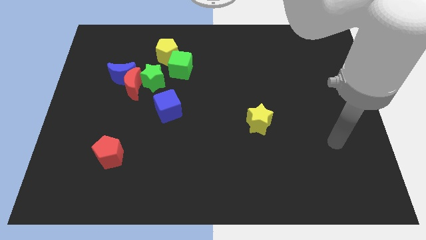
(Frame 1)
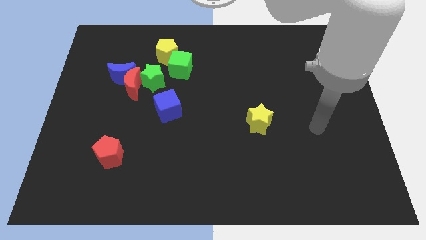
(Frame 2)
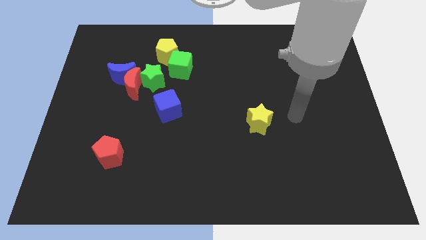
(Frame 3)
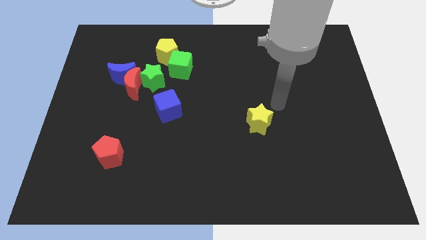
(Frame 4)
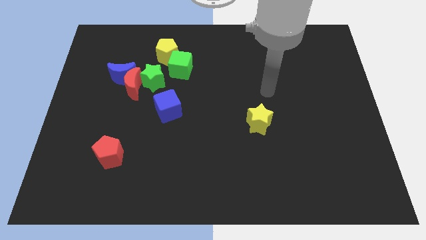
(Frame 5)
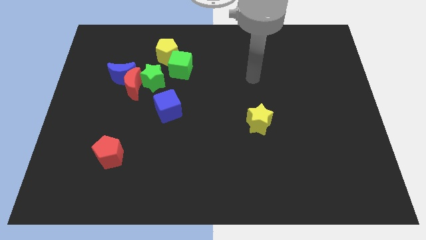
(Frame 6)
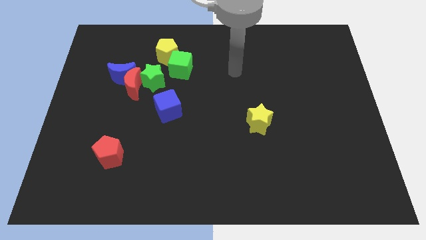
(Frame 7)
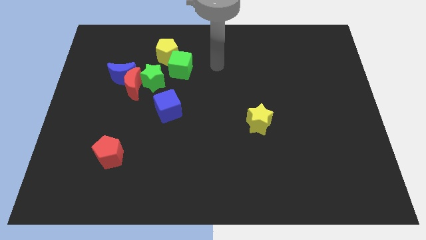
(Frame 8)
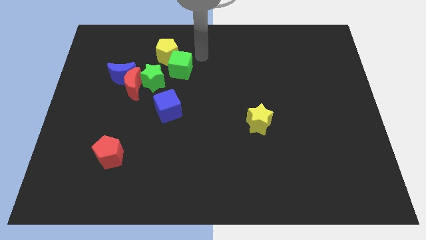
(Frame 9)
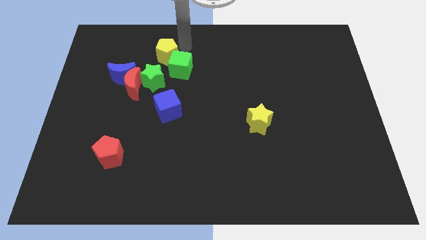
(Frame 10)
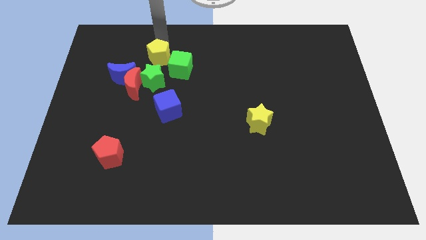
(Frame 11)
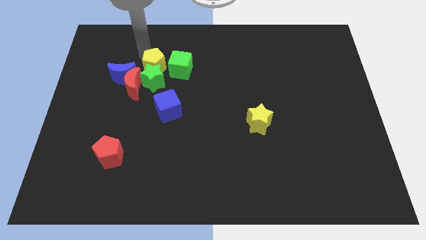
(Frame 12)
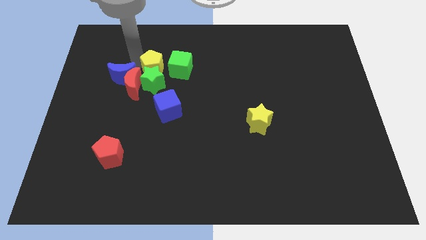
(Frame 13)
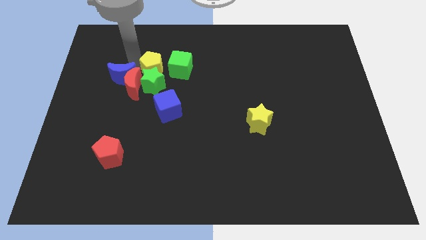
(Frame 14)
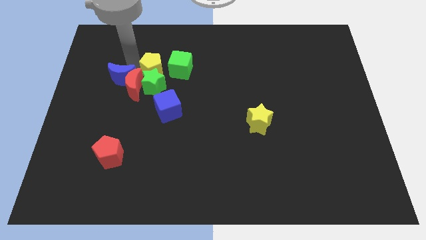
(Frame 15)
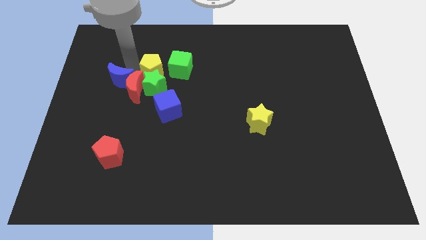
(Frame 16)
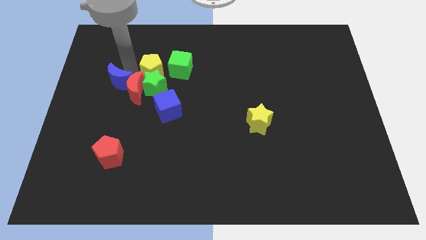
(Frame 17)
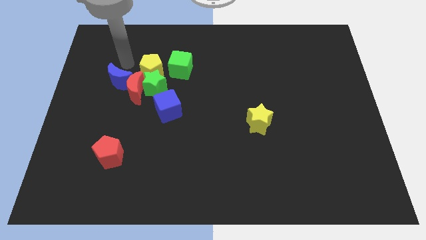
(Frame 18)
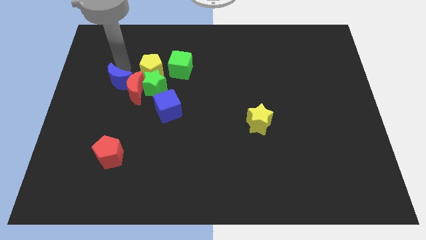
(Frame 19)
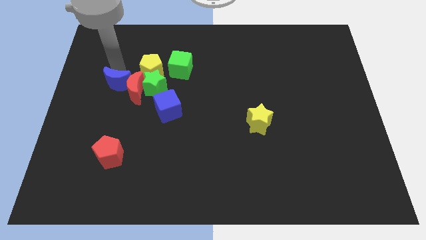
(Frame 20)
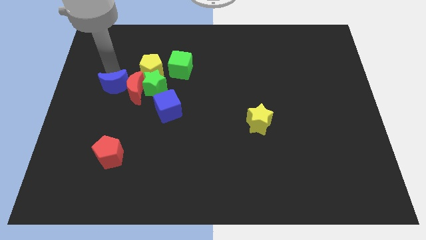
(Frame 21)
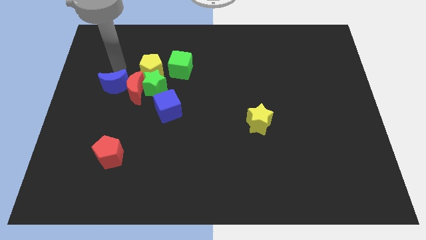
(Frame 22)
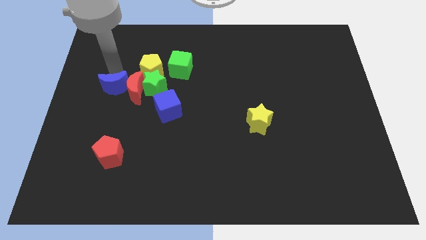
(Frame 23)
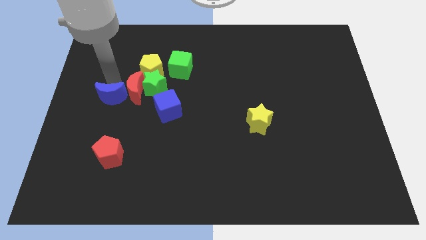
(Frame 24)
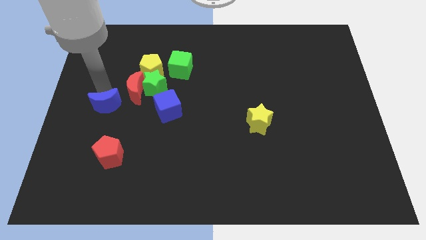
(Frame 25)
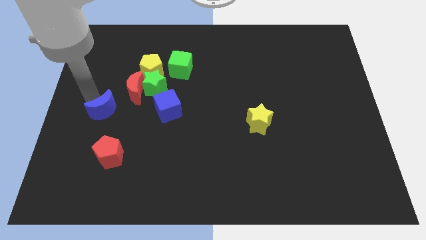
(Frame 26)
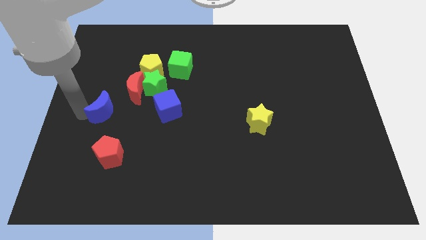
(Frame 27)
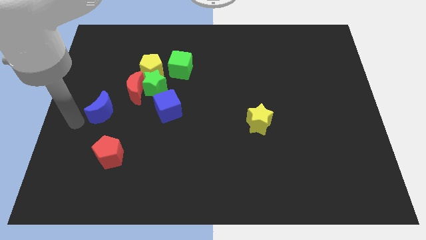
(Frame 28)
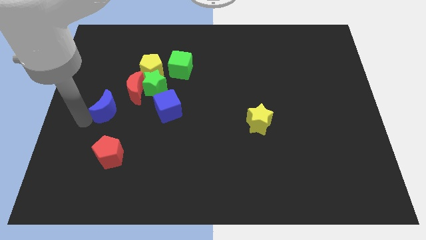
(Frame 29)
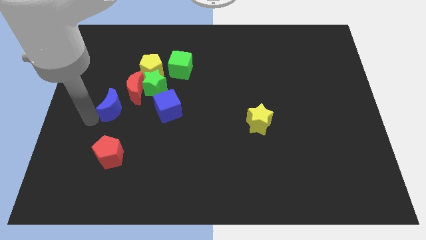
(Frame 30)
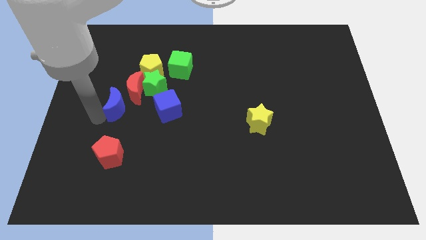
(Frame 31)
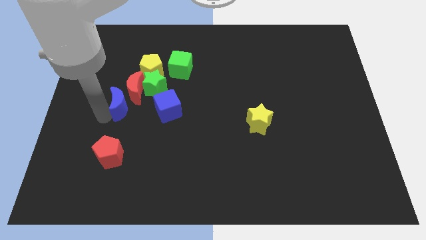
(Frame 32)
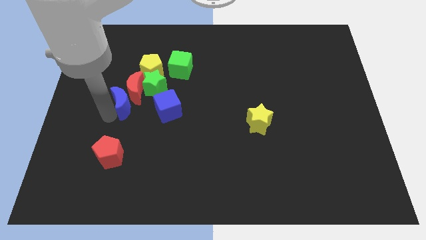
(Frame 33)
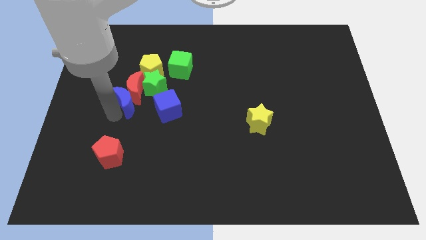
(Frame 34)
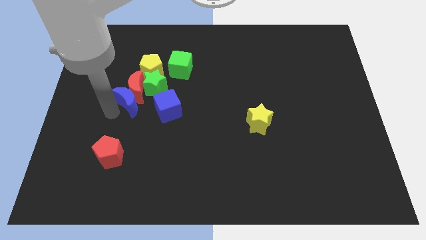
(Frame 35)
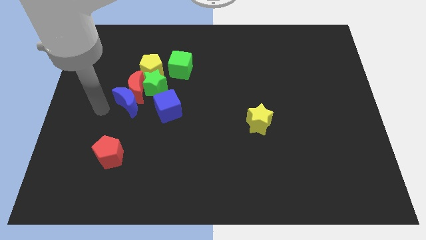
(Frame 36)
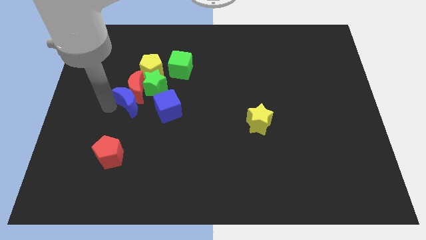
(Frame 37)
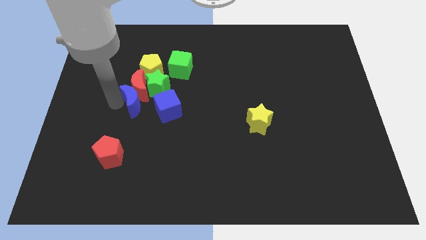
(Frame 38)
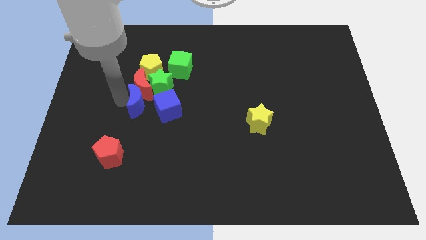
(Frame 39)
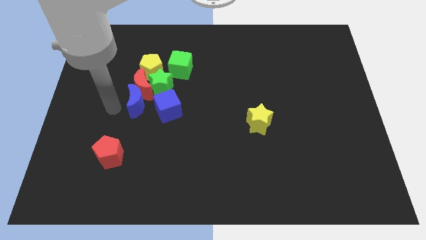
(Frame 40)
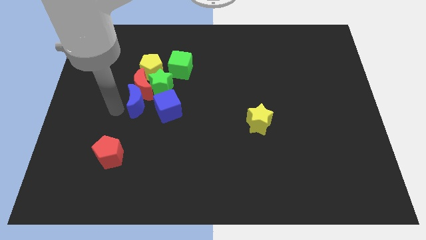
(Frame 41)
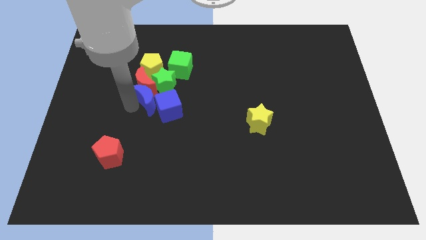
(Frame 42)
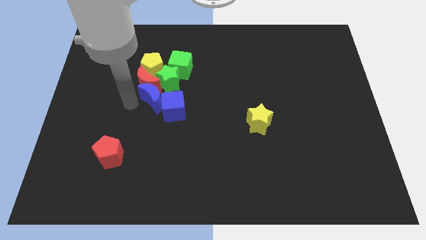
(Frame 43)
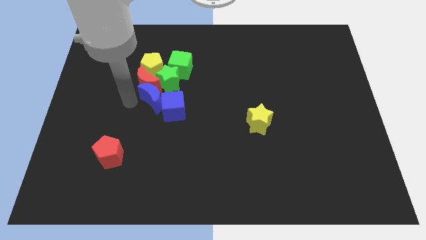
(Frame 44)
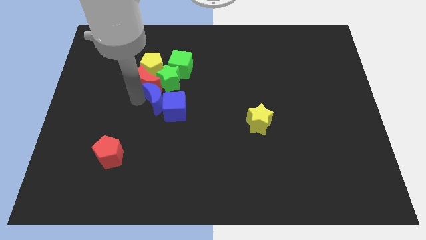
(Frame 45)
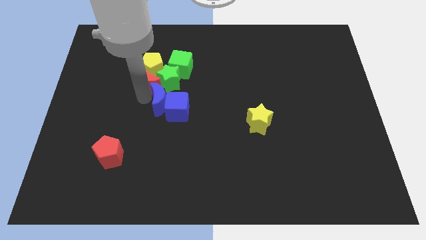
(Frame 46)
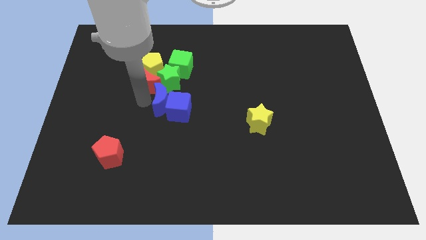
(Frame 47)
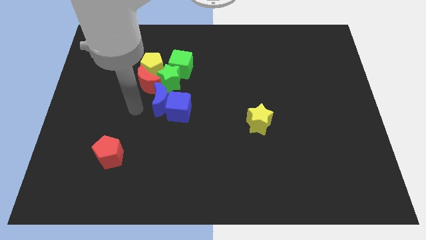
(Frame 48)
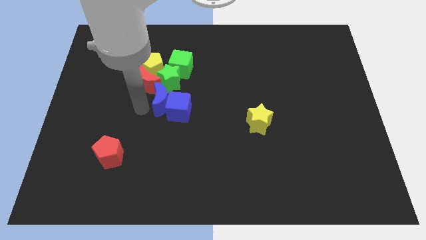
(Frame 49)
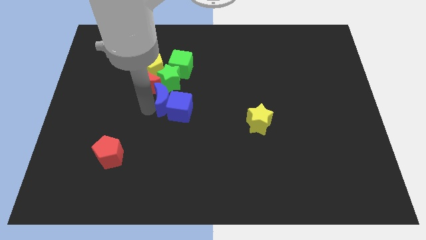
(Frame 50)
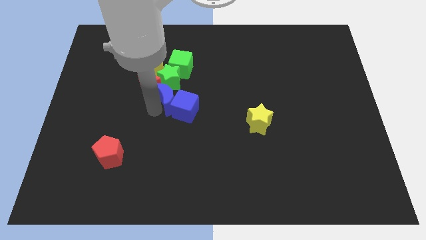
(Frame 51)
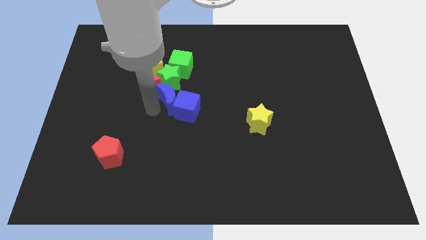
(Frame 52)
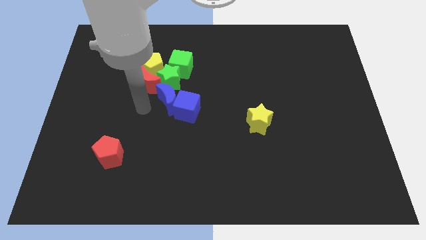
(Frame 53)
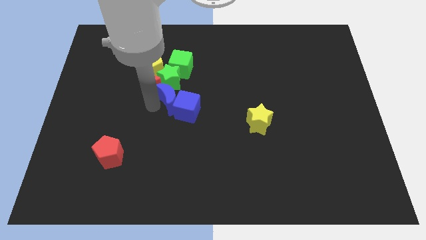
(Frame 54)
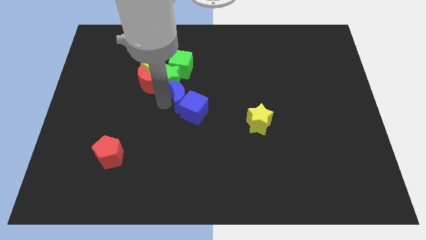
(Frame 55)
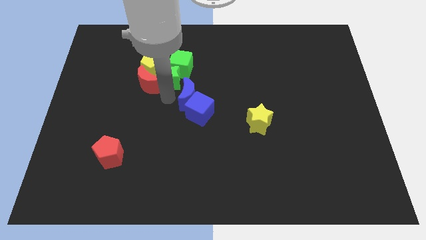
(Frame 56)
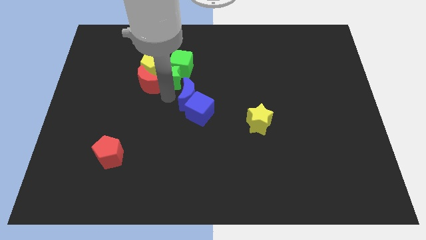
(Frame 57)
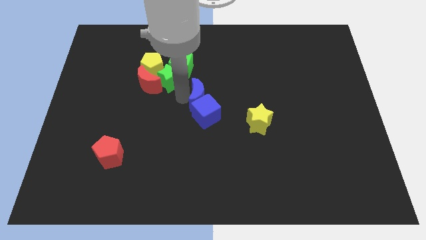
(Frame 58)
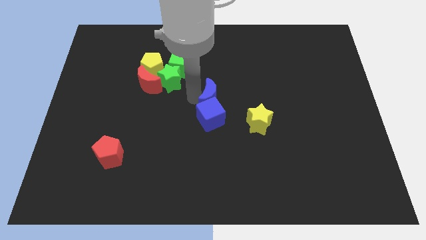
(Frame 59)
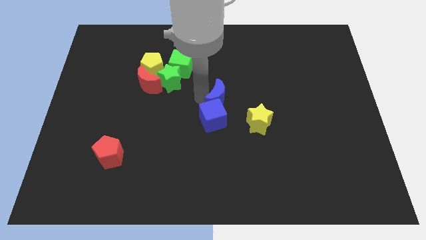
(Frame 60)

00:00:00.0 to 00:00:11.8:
push the blue moon diagonally up and to the left of the yellow star

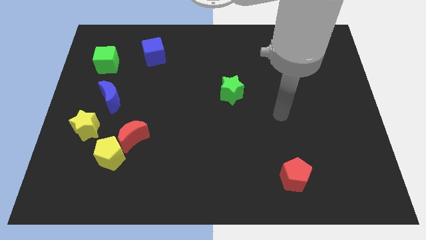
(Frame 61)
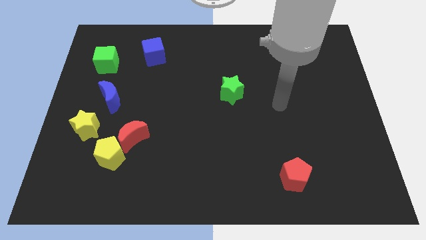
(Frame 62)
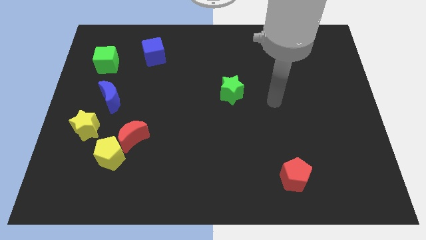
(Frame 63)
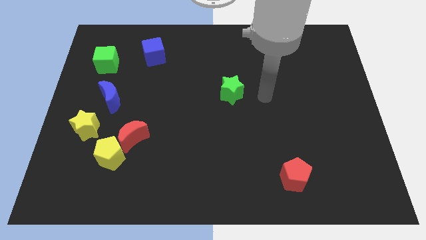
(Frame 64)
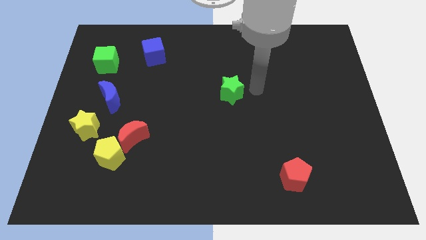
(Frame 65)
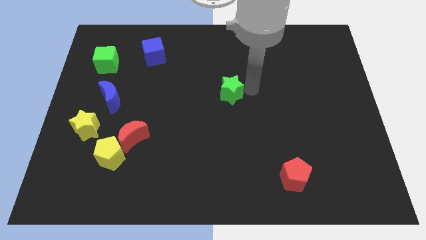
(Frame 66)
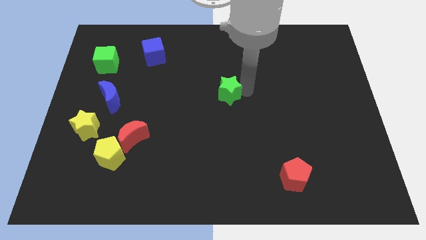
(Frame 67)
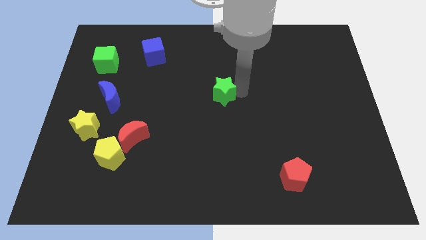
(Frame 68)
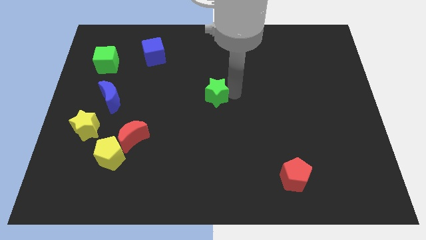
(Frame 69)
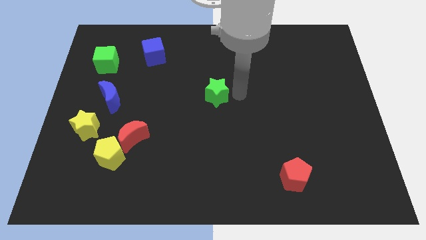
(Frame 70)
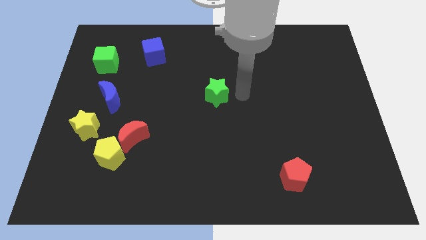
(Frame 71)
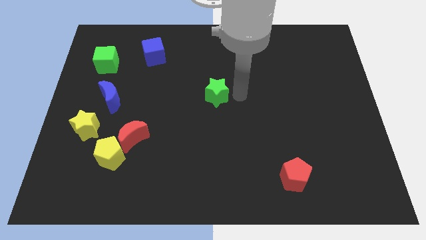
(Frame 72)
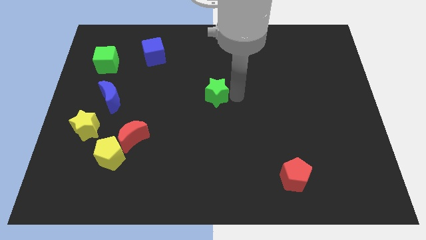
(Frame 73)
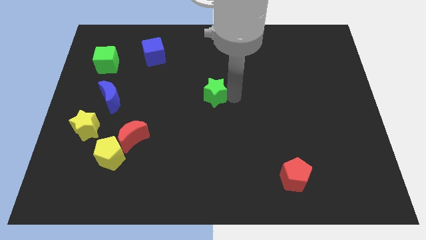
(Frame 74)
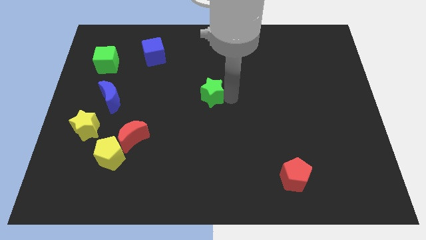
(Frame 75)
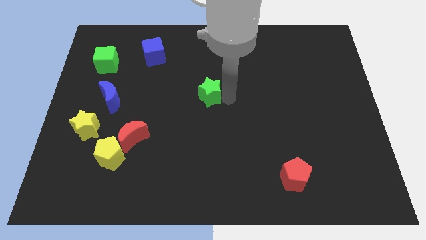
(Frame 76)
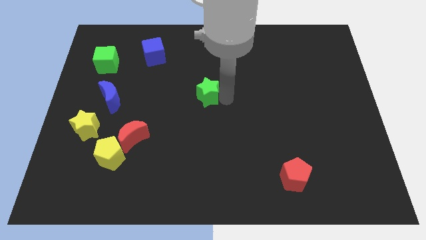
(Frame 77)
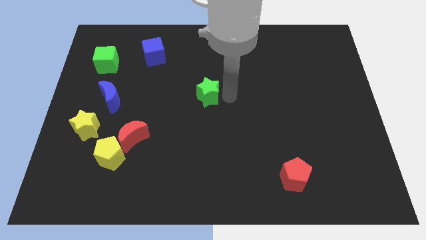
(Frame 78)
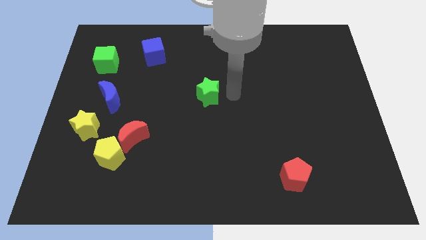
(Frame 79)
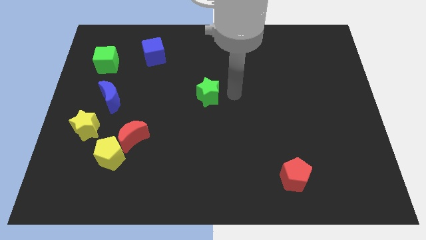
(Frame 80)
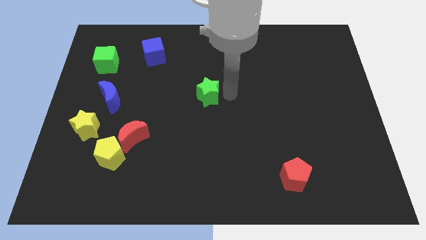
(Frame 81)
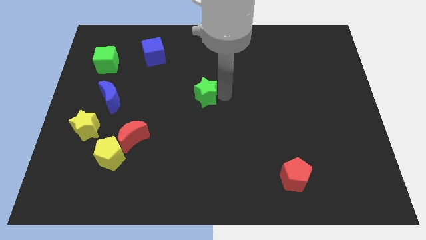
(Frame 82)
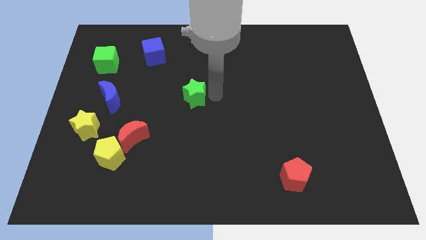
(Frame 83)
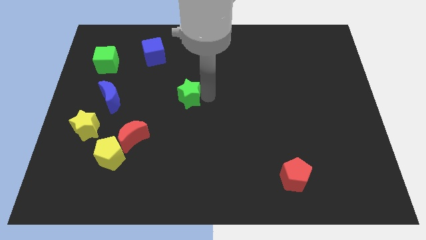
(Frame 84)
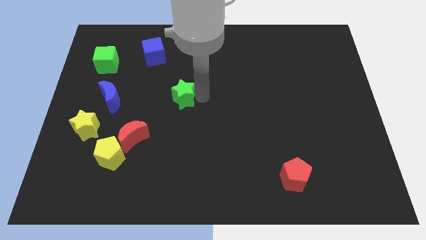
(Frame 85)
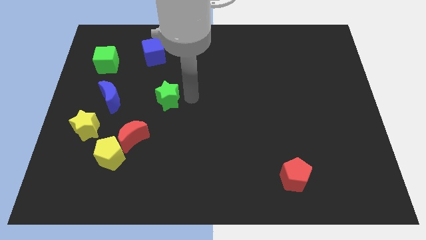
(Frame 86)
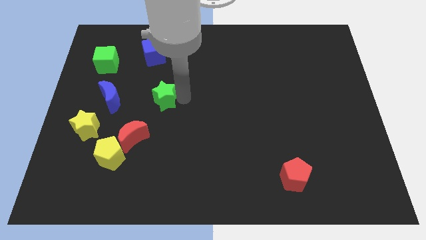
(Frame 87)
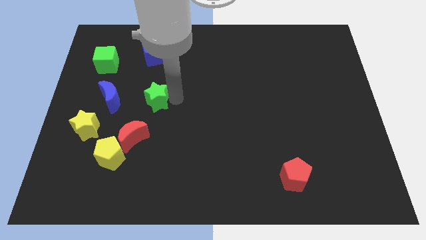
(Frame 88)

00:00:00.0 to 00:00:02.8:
push the green star to the top side of the red moon
